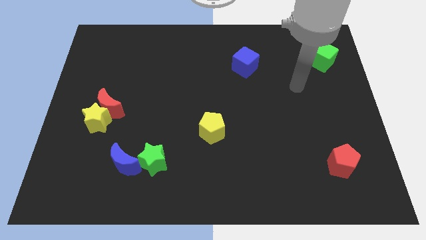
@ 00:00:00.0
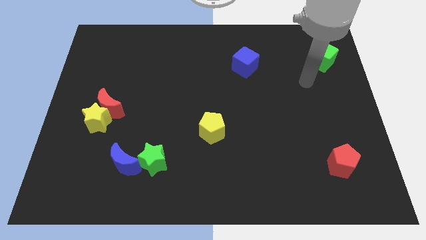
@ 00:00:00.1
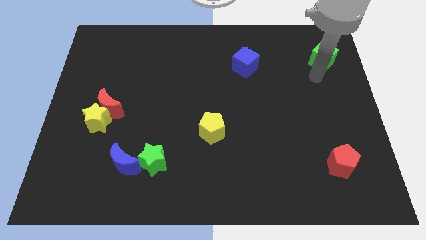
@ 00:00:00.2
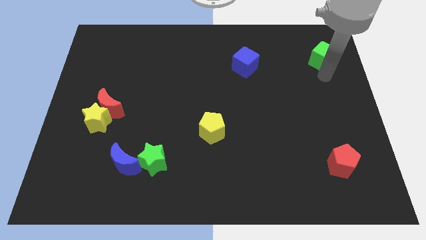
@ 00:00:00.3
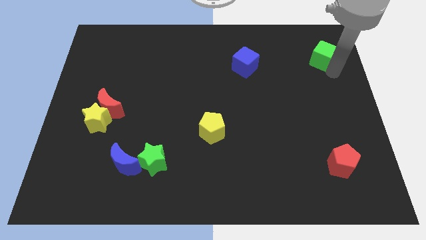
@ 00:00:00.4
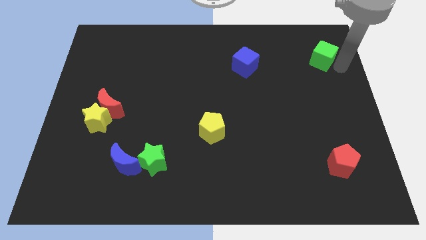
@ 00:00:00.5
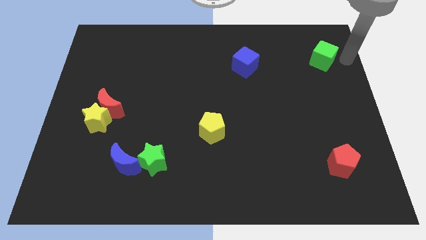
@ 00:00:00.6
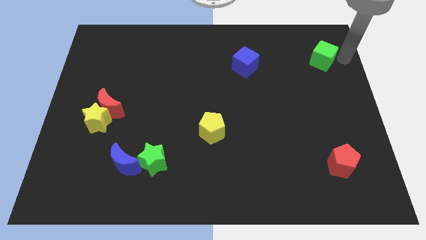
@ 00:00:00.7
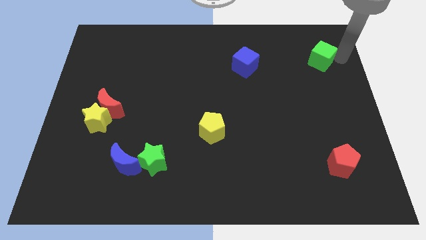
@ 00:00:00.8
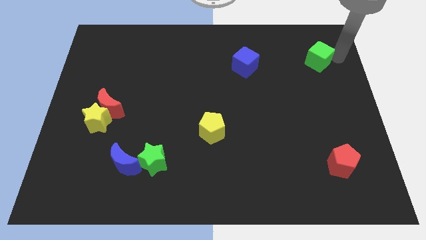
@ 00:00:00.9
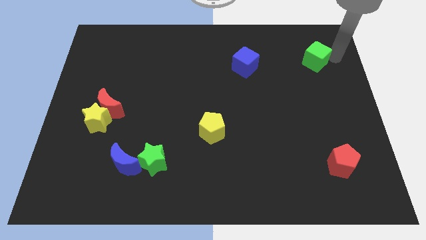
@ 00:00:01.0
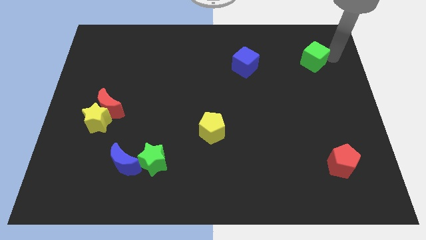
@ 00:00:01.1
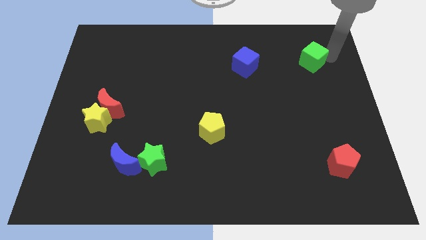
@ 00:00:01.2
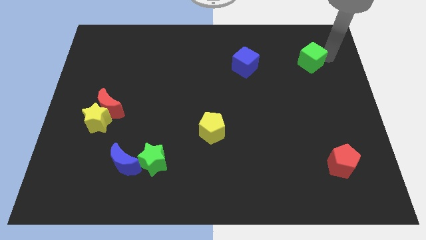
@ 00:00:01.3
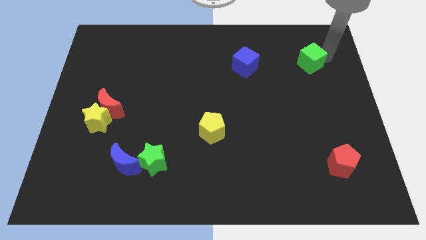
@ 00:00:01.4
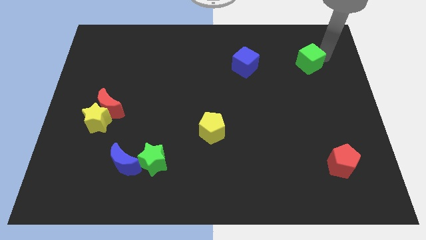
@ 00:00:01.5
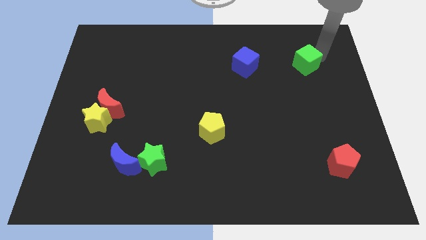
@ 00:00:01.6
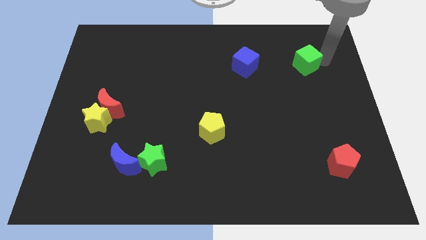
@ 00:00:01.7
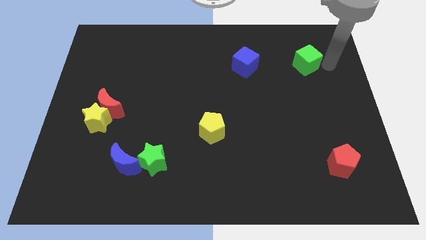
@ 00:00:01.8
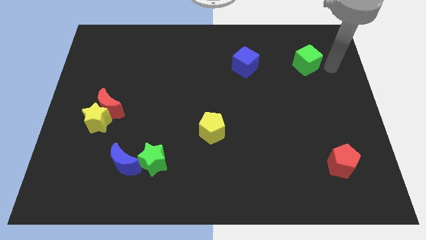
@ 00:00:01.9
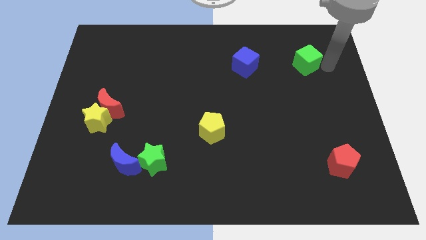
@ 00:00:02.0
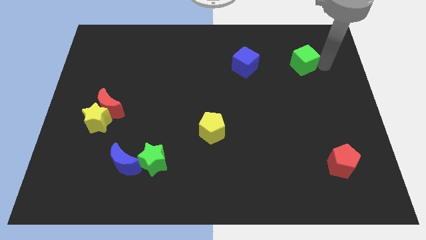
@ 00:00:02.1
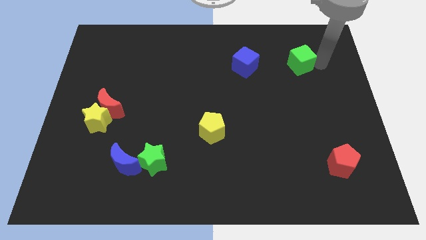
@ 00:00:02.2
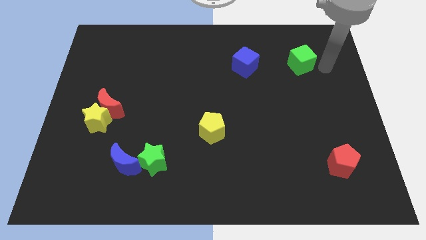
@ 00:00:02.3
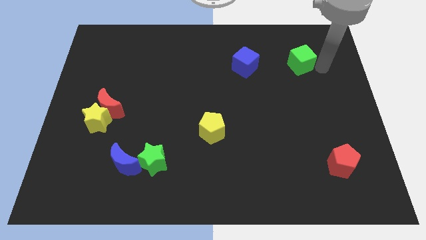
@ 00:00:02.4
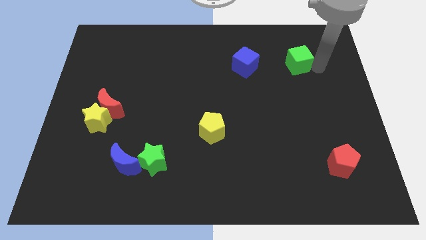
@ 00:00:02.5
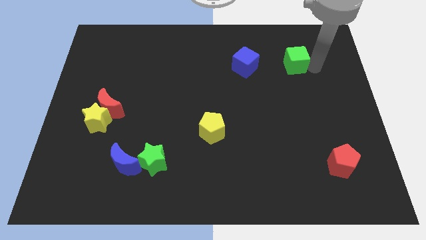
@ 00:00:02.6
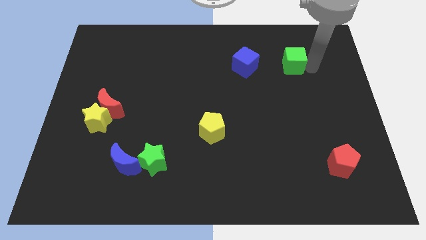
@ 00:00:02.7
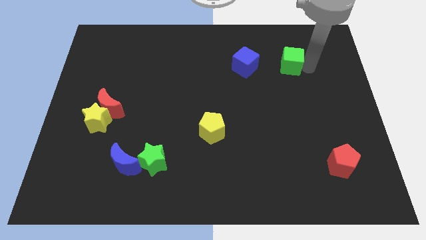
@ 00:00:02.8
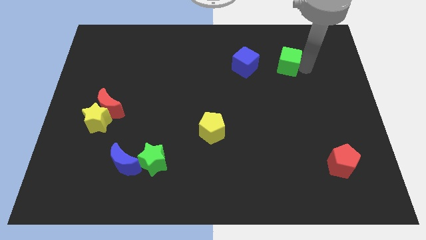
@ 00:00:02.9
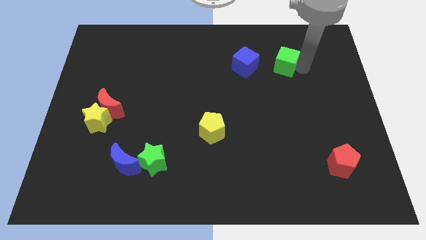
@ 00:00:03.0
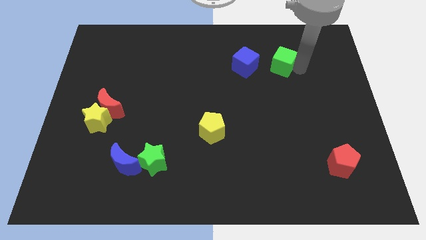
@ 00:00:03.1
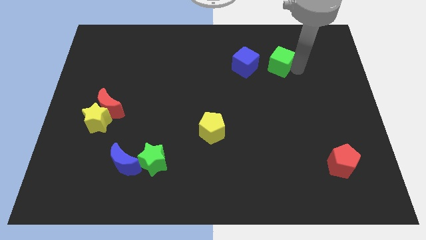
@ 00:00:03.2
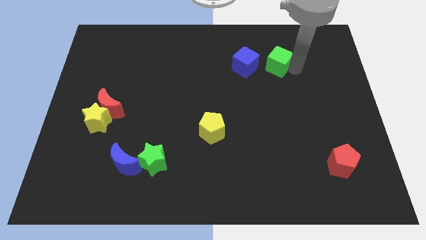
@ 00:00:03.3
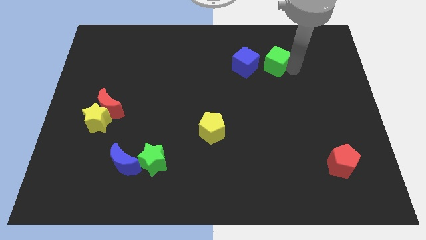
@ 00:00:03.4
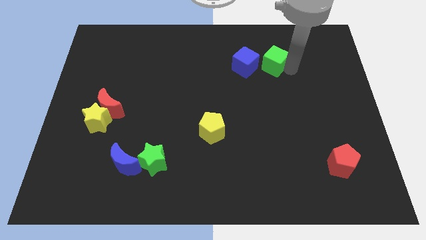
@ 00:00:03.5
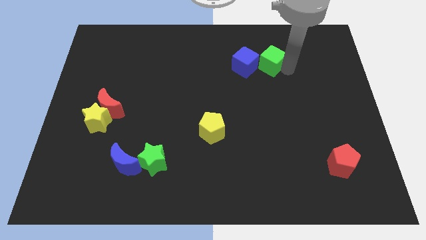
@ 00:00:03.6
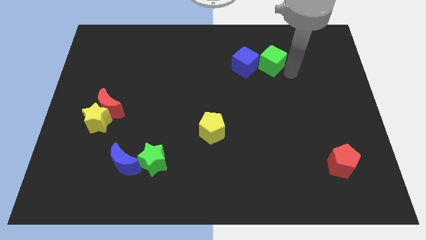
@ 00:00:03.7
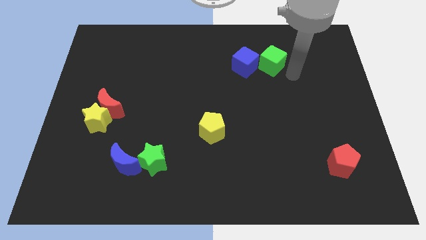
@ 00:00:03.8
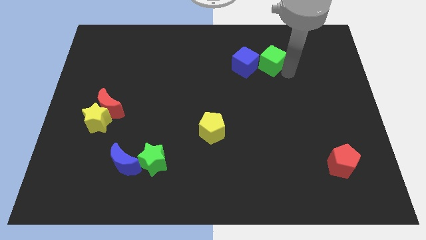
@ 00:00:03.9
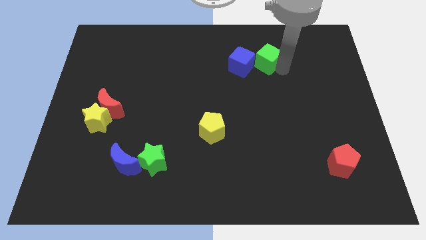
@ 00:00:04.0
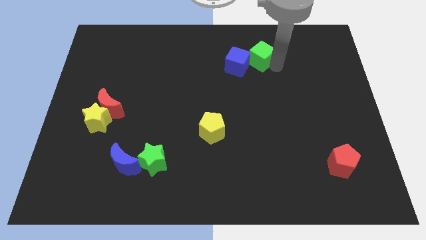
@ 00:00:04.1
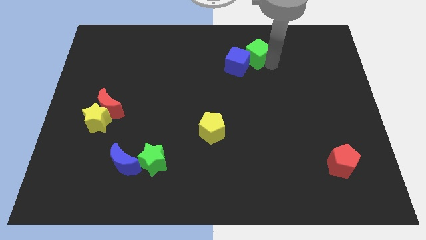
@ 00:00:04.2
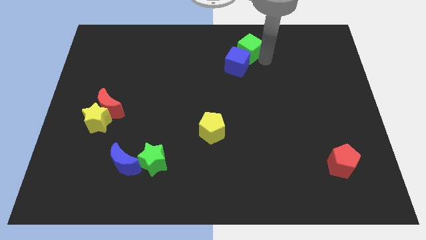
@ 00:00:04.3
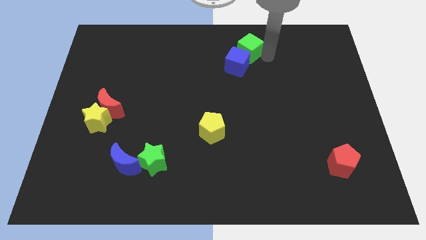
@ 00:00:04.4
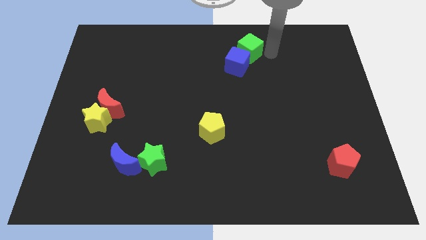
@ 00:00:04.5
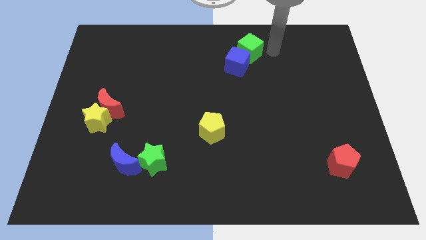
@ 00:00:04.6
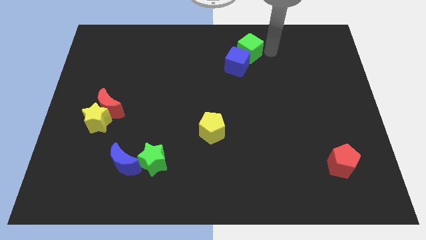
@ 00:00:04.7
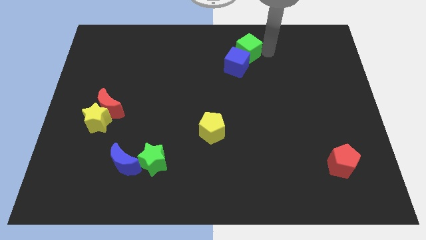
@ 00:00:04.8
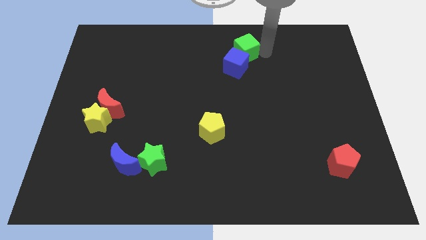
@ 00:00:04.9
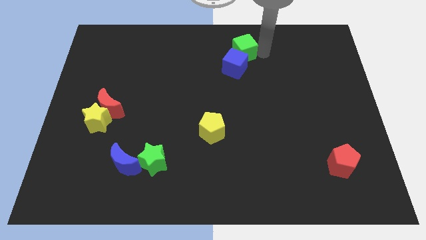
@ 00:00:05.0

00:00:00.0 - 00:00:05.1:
slide the green cube left

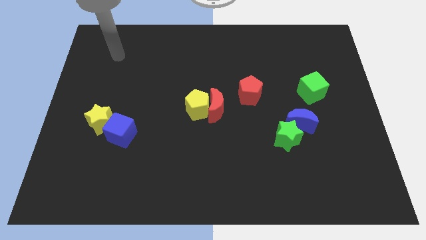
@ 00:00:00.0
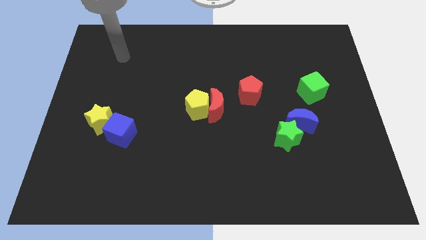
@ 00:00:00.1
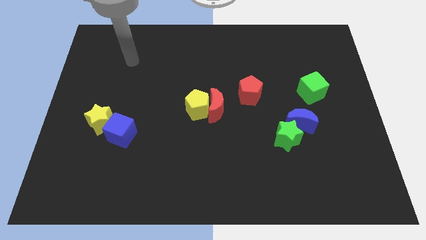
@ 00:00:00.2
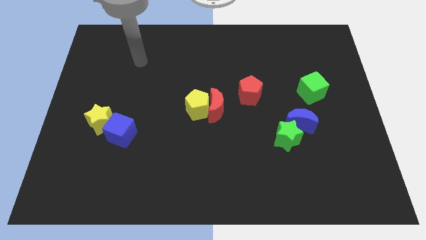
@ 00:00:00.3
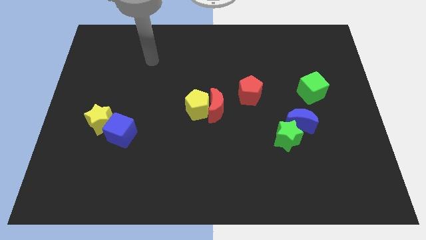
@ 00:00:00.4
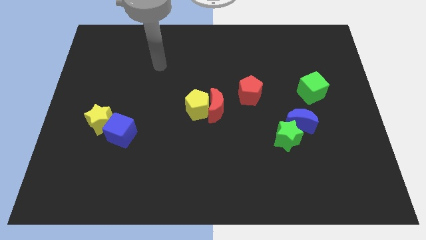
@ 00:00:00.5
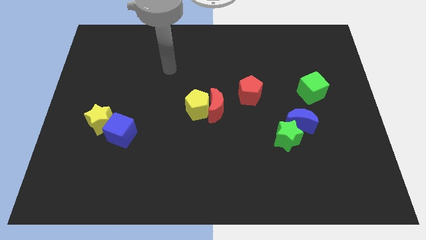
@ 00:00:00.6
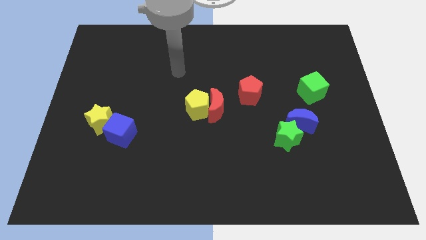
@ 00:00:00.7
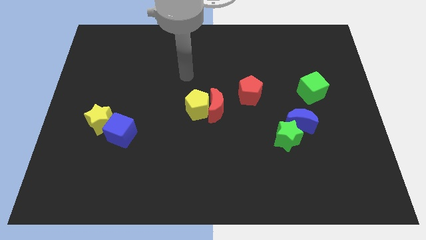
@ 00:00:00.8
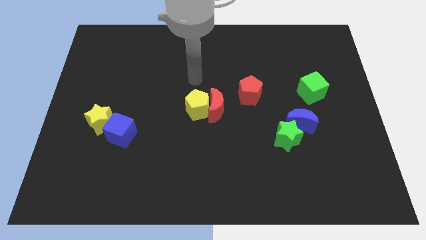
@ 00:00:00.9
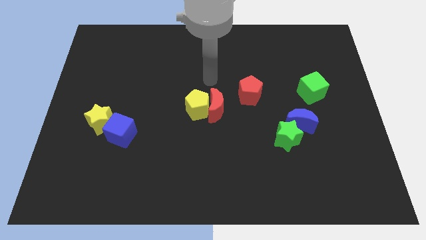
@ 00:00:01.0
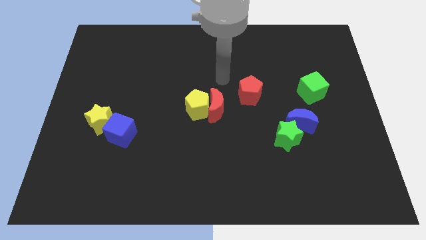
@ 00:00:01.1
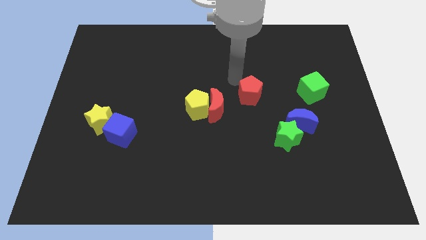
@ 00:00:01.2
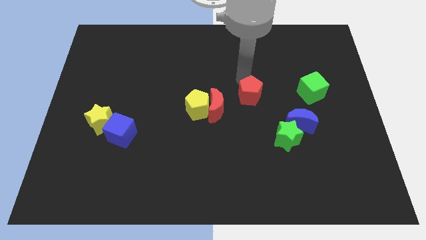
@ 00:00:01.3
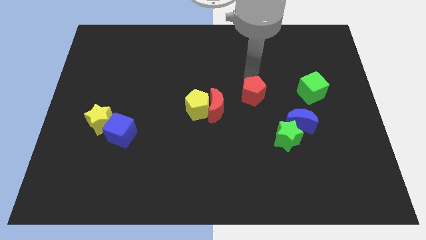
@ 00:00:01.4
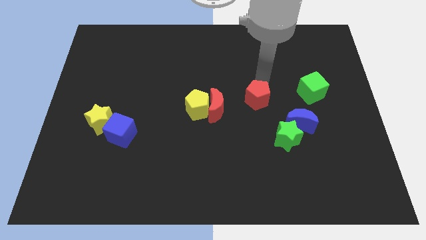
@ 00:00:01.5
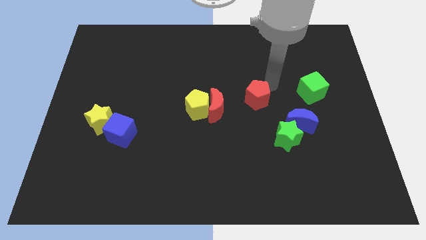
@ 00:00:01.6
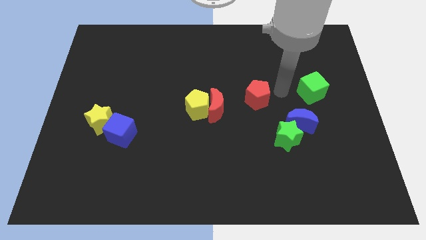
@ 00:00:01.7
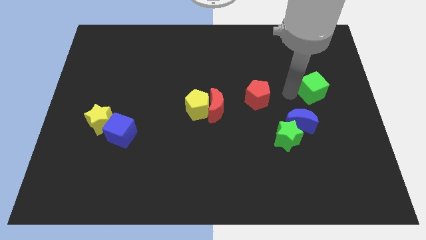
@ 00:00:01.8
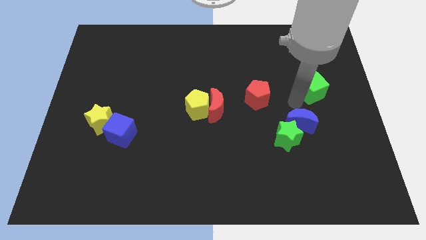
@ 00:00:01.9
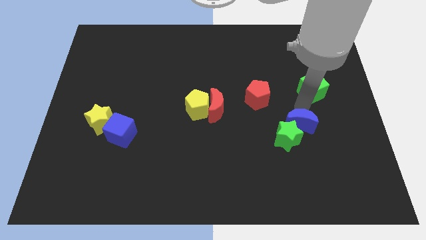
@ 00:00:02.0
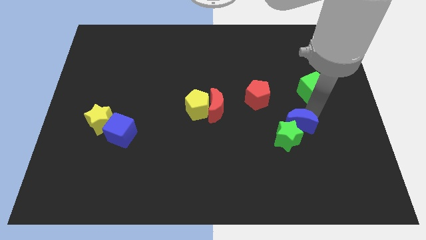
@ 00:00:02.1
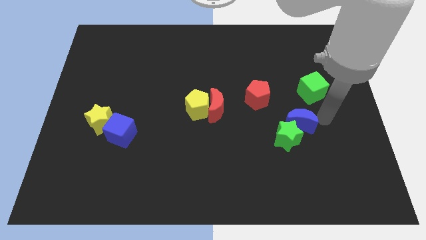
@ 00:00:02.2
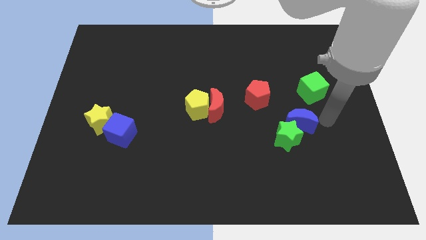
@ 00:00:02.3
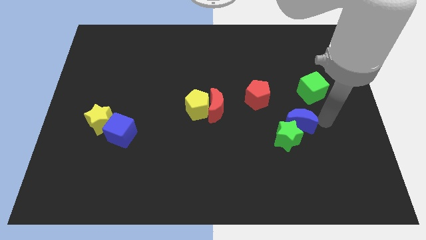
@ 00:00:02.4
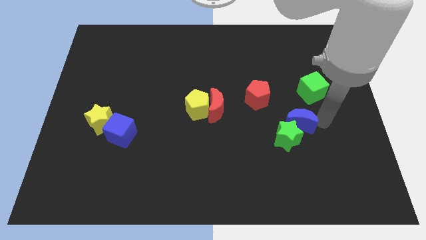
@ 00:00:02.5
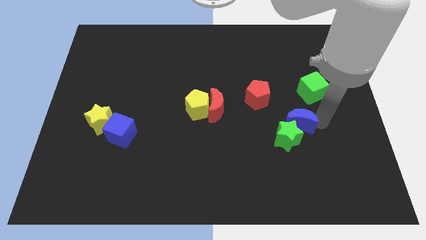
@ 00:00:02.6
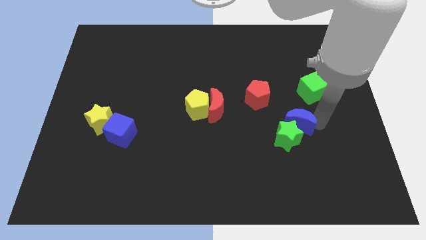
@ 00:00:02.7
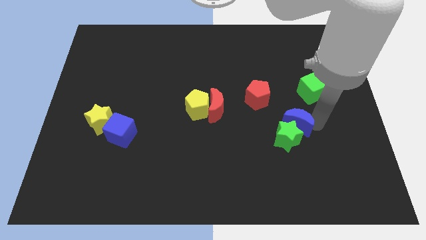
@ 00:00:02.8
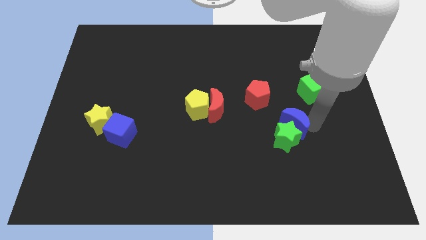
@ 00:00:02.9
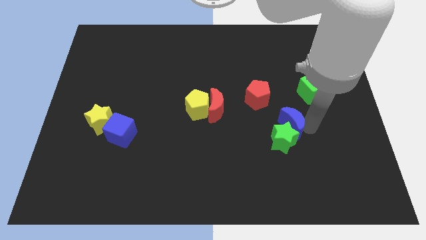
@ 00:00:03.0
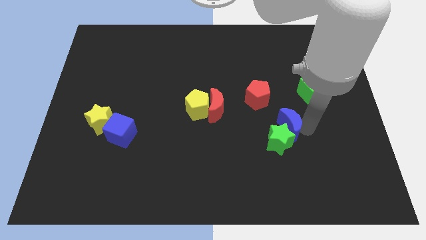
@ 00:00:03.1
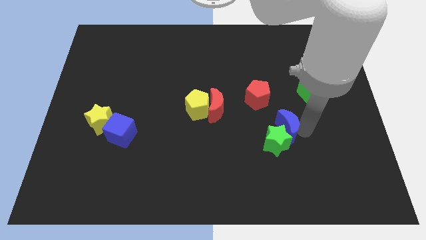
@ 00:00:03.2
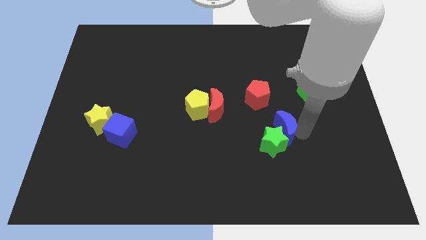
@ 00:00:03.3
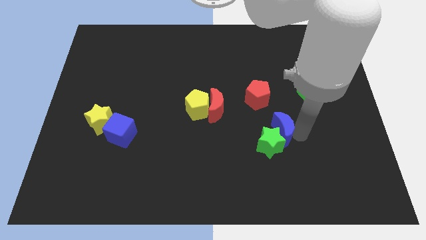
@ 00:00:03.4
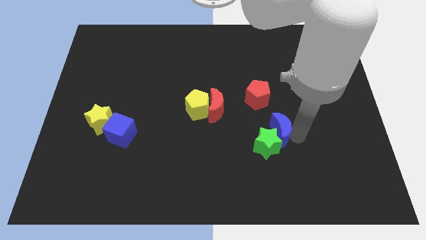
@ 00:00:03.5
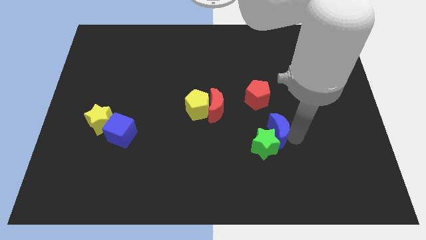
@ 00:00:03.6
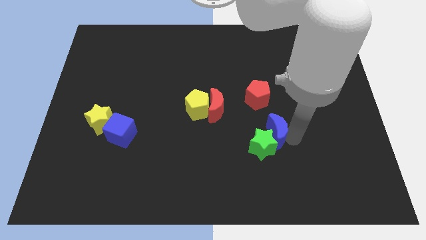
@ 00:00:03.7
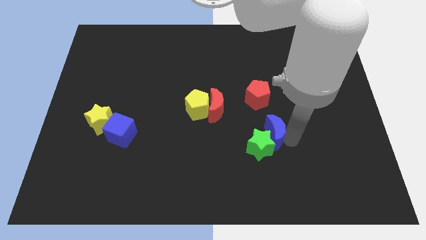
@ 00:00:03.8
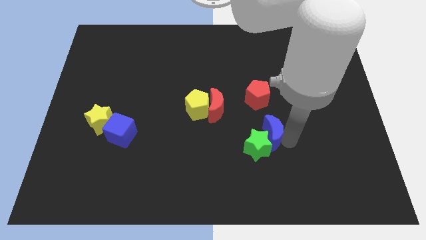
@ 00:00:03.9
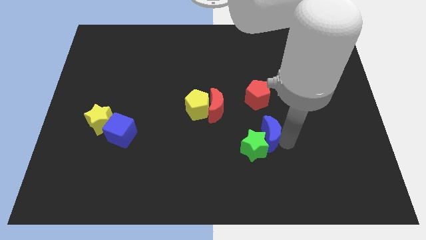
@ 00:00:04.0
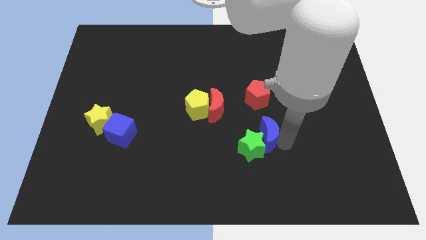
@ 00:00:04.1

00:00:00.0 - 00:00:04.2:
slightly move the blue moon to the left
